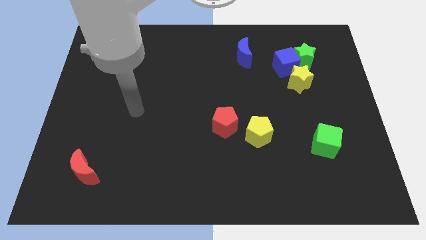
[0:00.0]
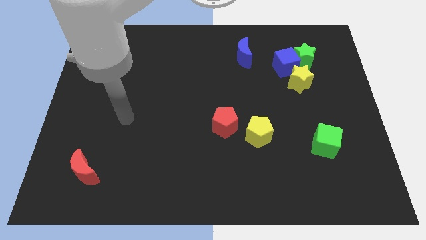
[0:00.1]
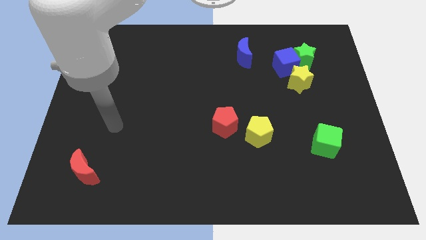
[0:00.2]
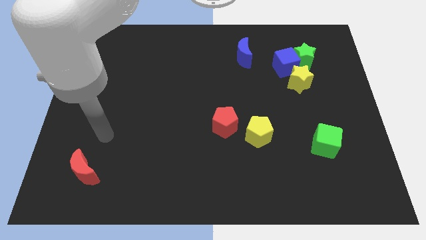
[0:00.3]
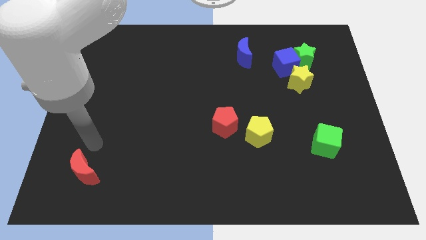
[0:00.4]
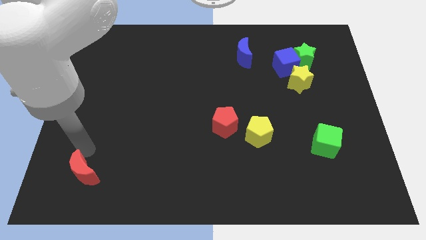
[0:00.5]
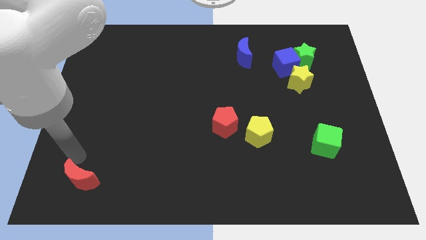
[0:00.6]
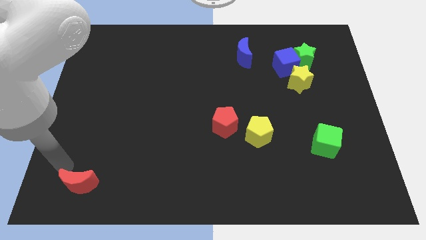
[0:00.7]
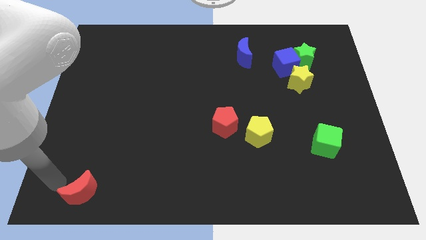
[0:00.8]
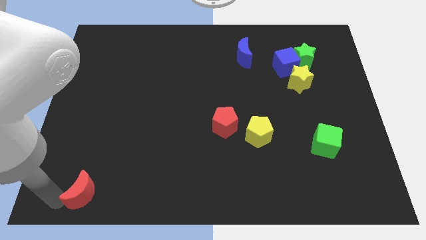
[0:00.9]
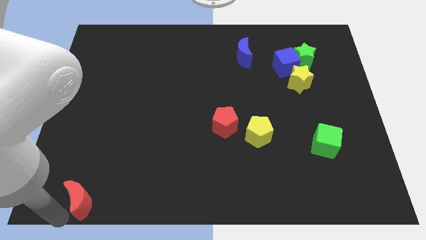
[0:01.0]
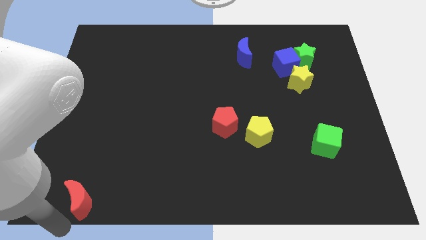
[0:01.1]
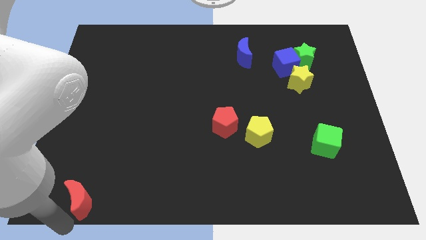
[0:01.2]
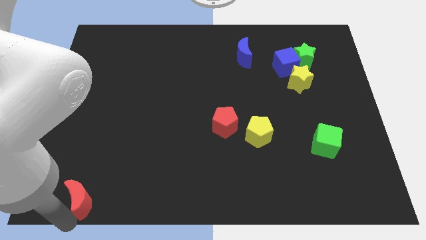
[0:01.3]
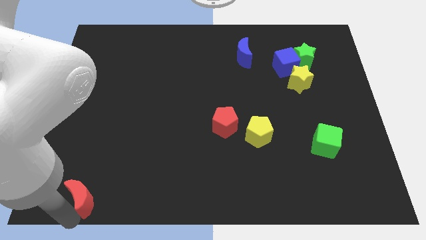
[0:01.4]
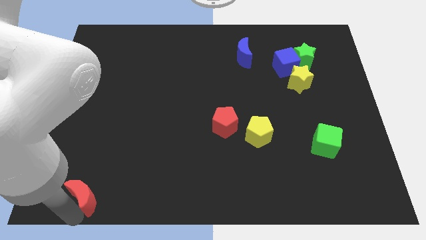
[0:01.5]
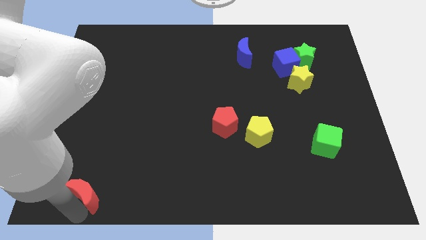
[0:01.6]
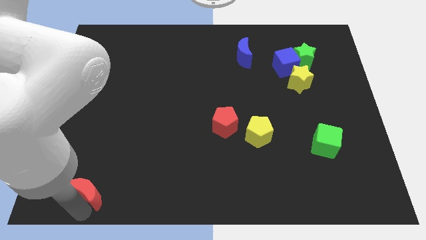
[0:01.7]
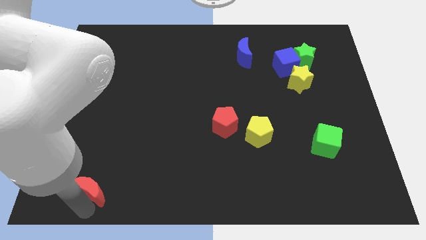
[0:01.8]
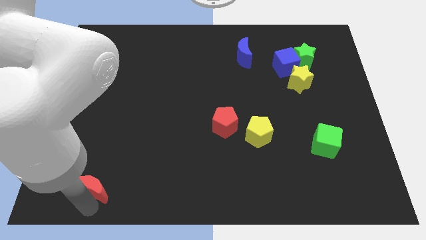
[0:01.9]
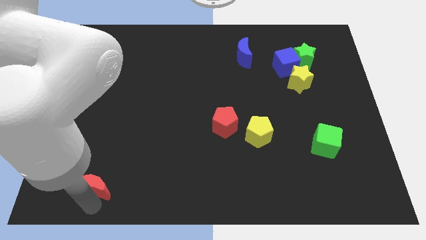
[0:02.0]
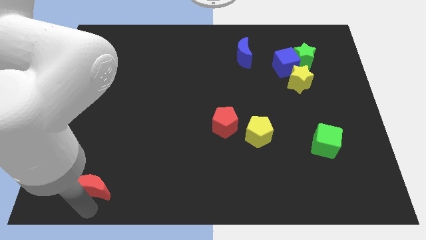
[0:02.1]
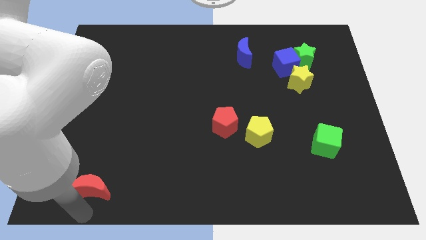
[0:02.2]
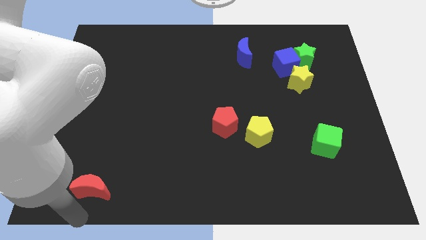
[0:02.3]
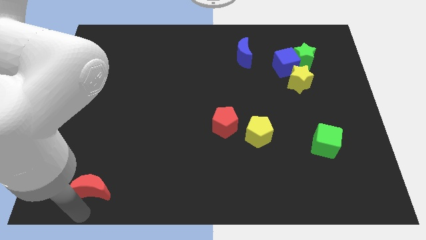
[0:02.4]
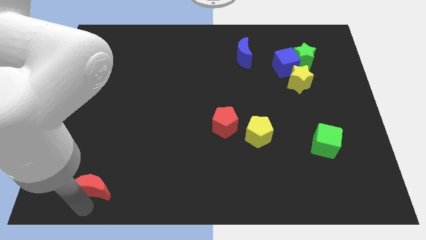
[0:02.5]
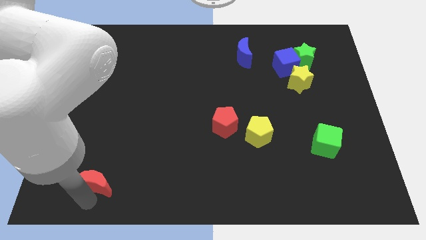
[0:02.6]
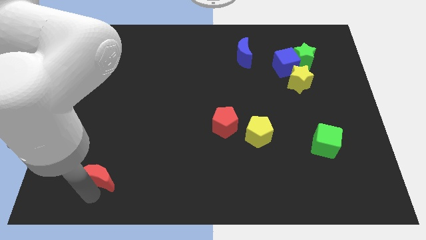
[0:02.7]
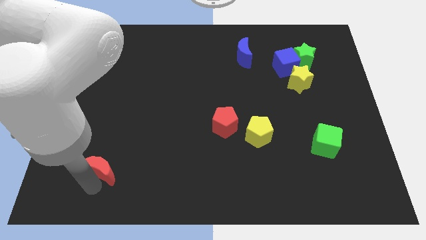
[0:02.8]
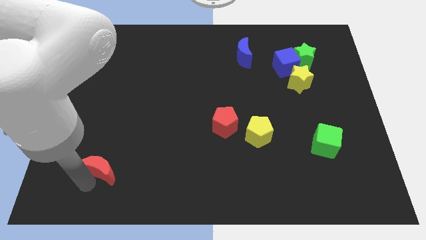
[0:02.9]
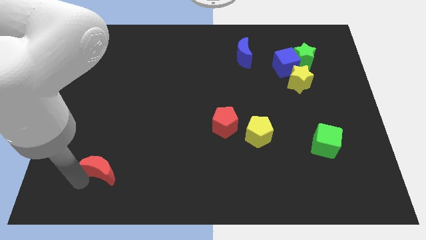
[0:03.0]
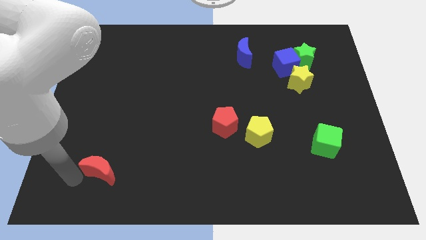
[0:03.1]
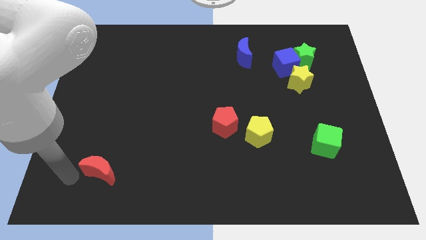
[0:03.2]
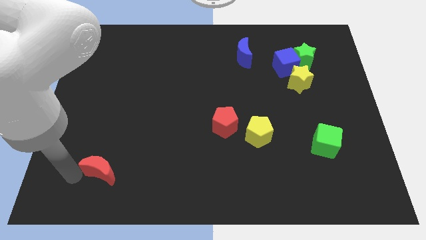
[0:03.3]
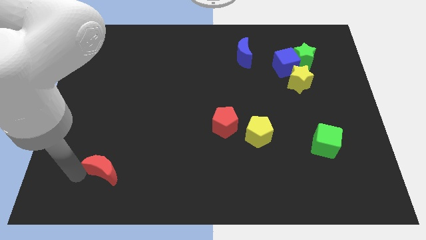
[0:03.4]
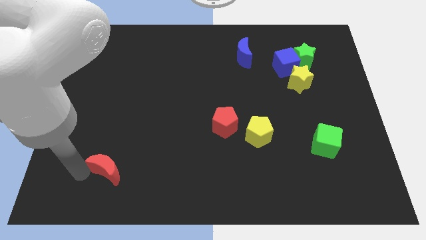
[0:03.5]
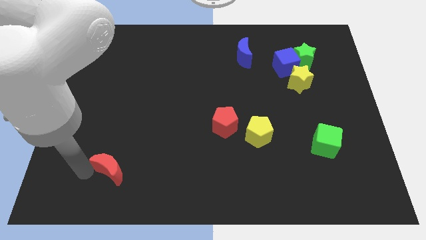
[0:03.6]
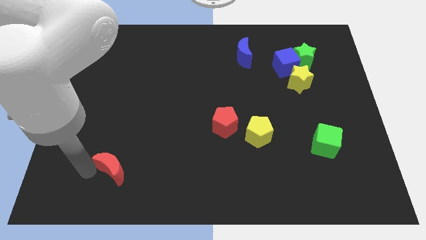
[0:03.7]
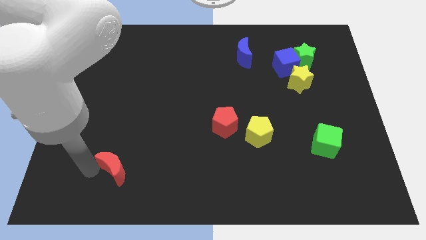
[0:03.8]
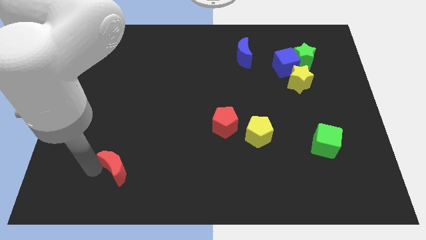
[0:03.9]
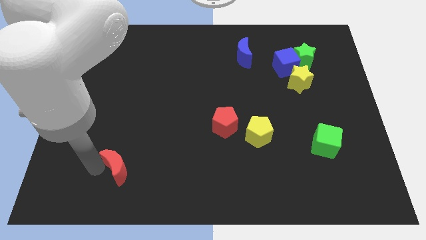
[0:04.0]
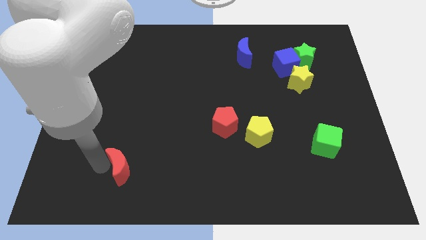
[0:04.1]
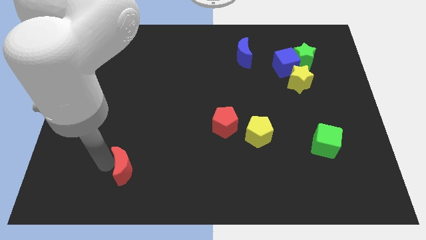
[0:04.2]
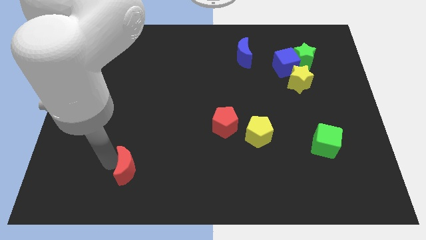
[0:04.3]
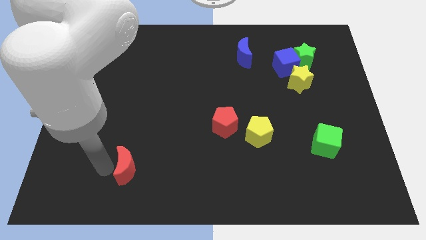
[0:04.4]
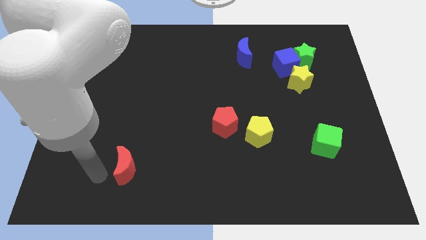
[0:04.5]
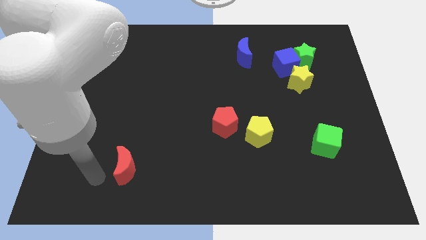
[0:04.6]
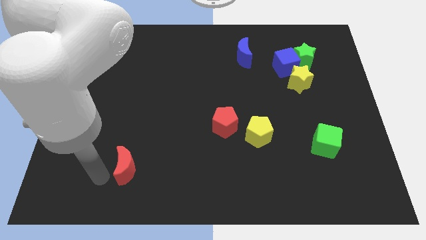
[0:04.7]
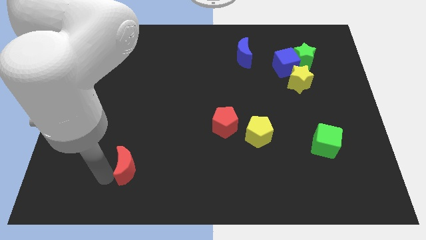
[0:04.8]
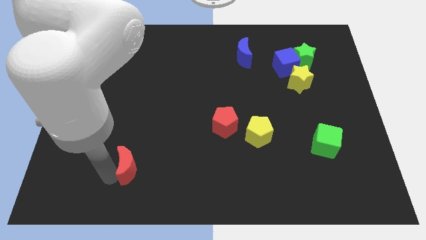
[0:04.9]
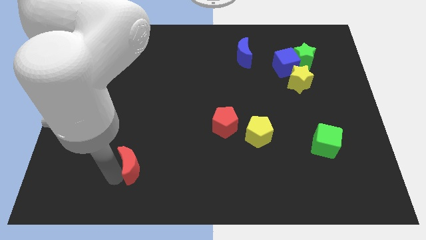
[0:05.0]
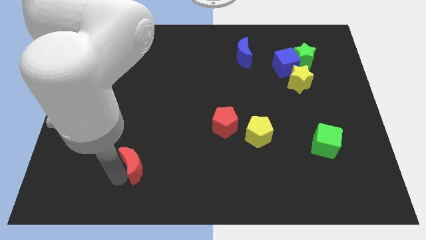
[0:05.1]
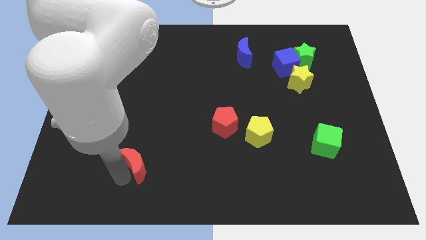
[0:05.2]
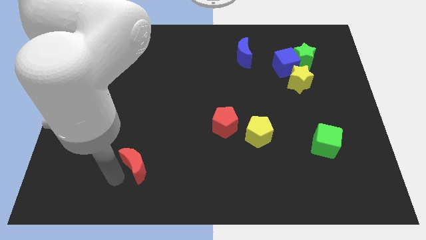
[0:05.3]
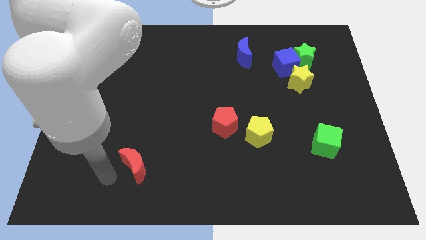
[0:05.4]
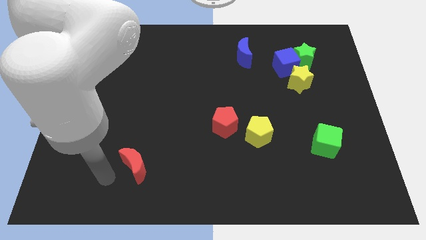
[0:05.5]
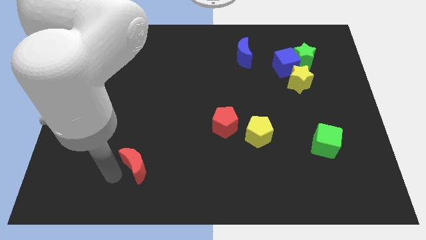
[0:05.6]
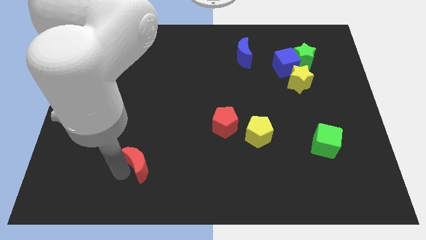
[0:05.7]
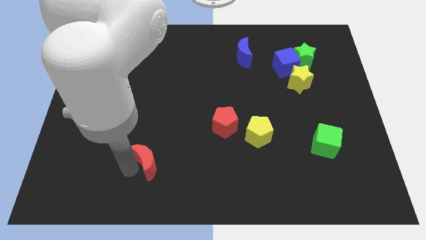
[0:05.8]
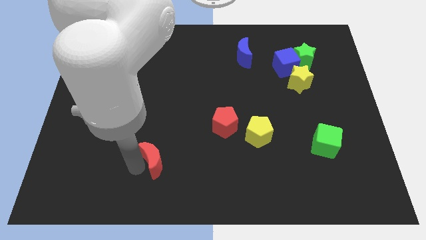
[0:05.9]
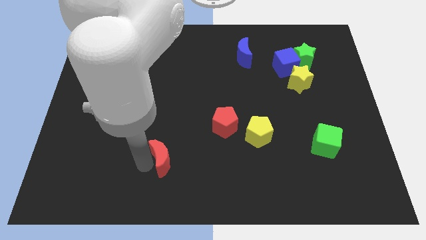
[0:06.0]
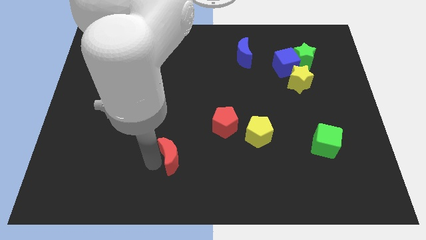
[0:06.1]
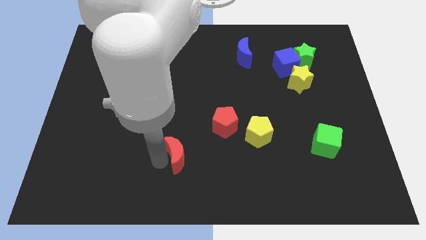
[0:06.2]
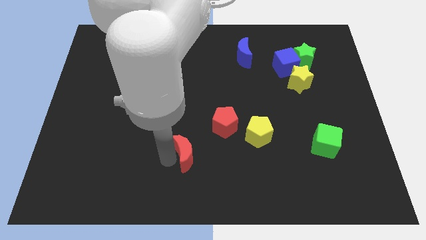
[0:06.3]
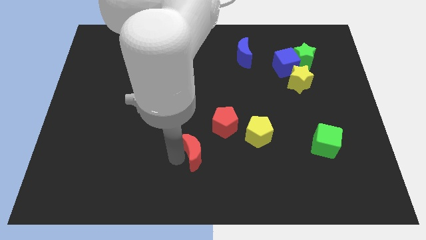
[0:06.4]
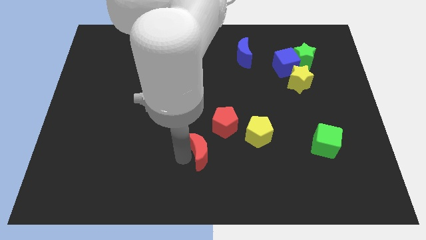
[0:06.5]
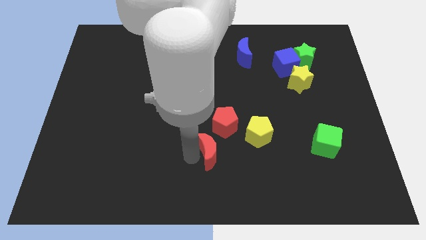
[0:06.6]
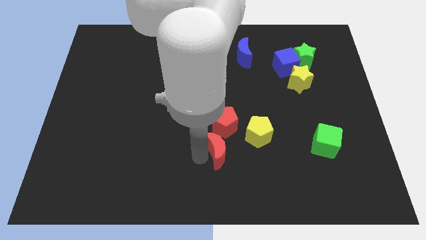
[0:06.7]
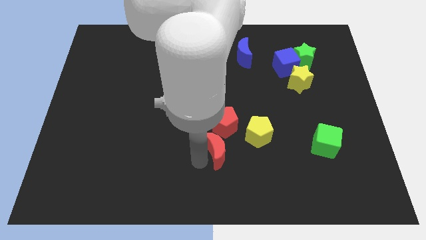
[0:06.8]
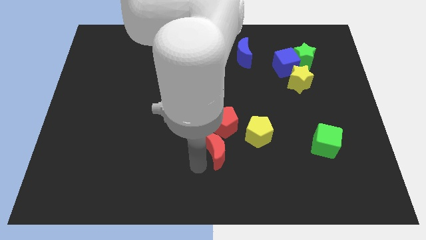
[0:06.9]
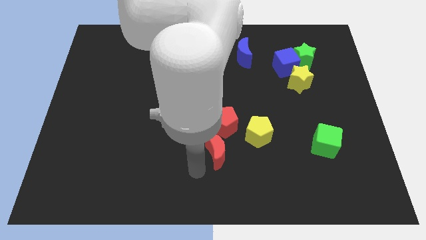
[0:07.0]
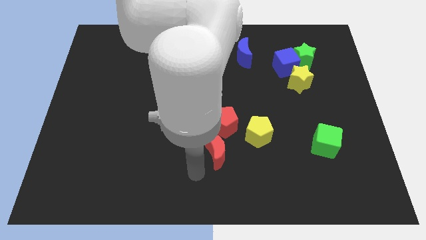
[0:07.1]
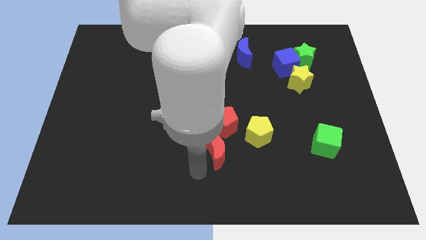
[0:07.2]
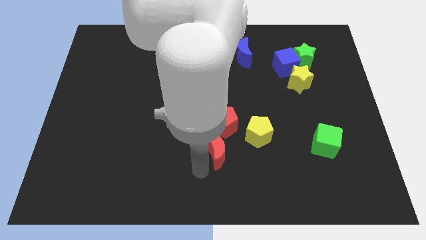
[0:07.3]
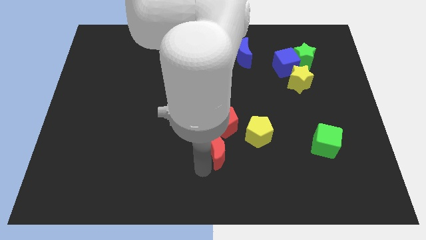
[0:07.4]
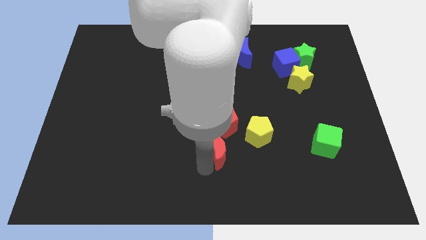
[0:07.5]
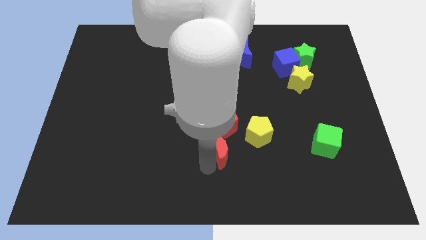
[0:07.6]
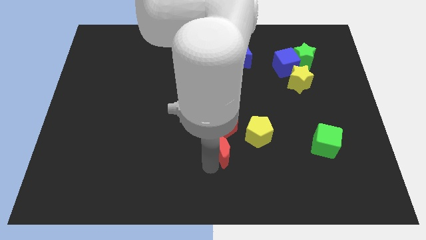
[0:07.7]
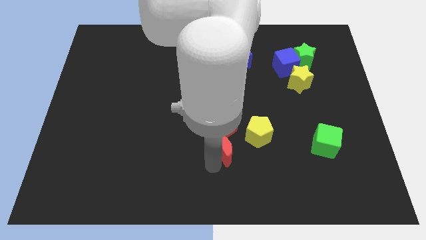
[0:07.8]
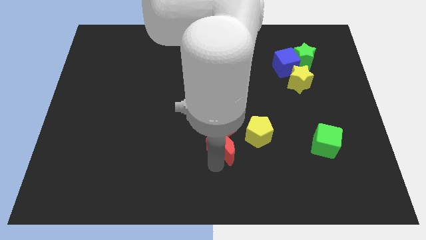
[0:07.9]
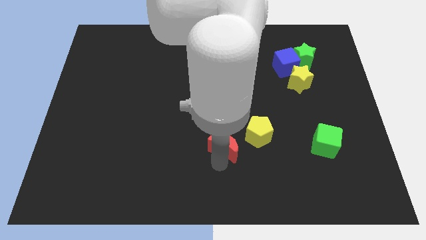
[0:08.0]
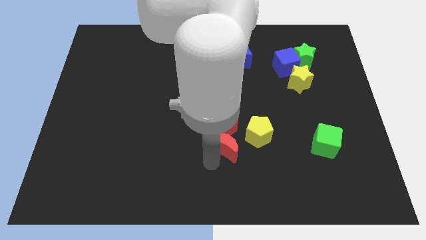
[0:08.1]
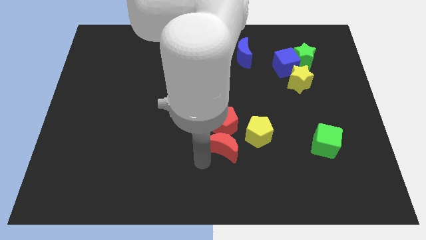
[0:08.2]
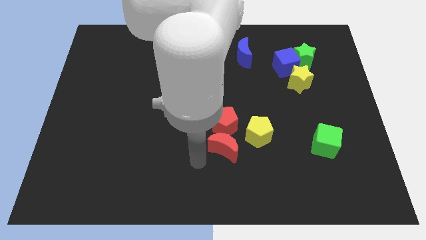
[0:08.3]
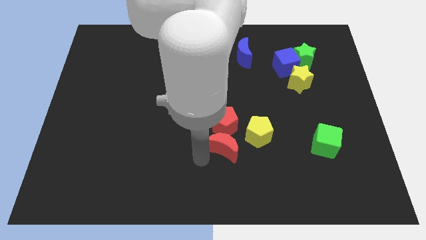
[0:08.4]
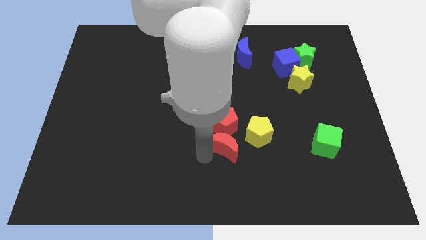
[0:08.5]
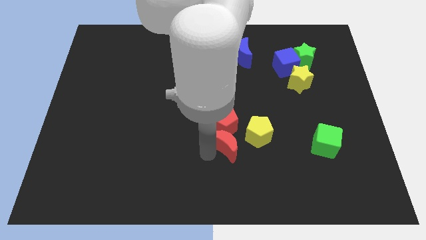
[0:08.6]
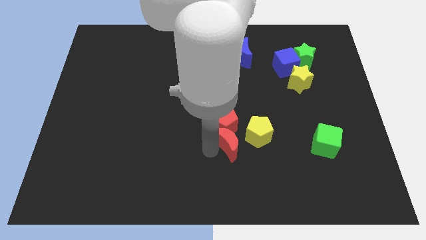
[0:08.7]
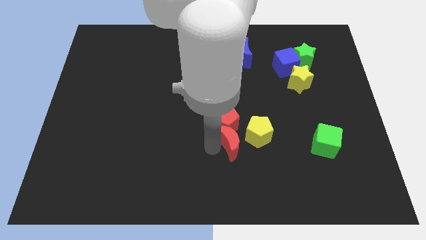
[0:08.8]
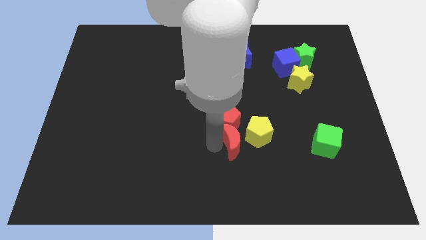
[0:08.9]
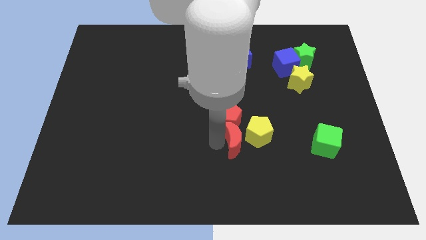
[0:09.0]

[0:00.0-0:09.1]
move the red moon towards the yellow pentagon
